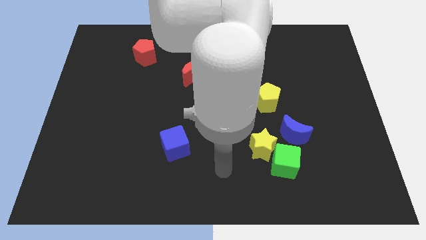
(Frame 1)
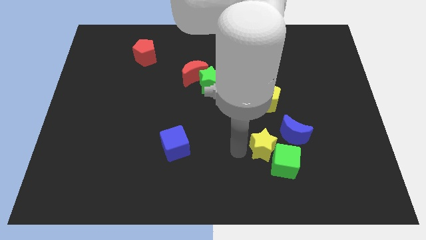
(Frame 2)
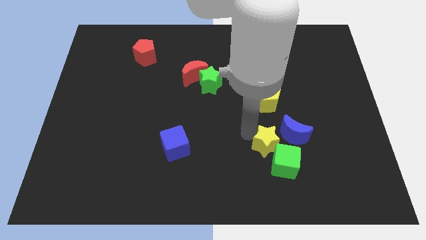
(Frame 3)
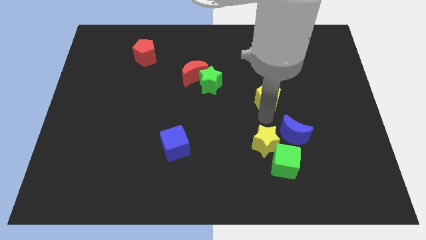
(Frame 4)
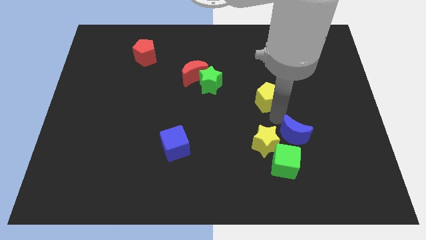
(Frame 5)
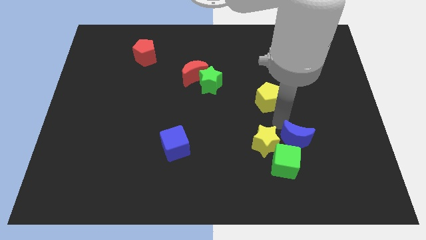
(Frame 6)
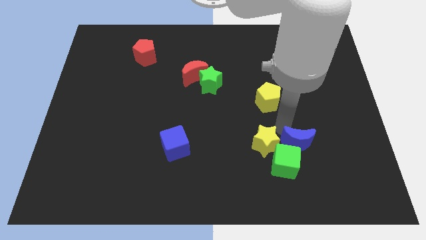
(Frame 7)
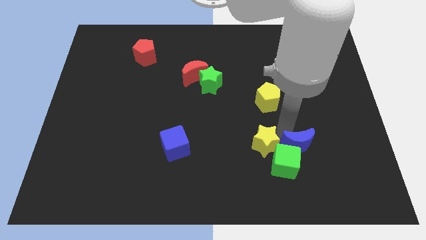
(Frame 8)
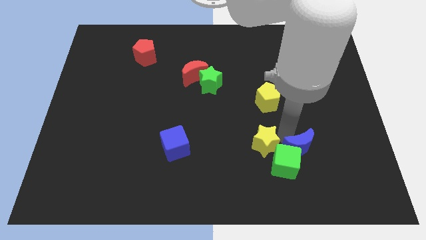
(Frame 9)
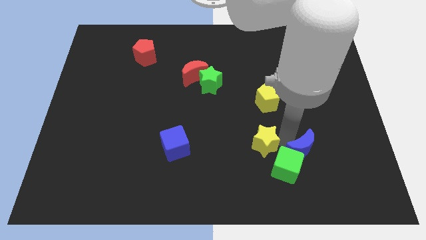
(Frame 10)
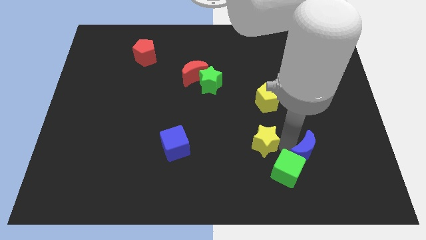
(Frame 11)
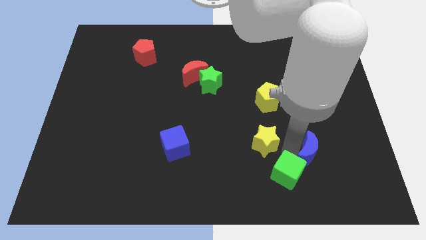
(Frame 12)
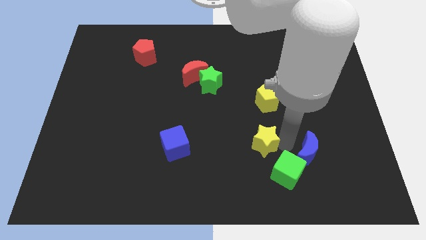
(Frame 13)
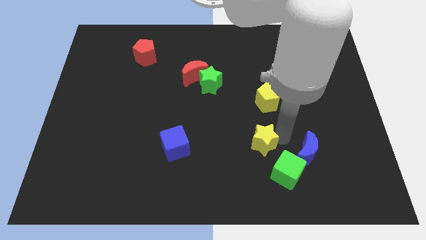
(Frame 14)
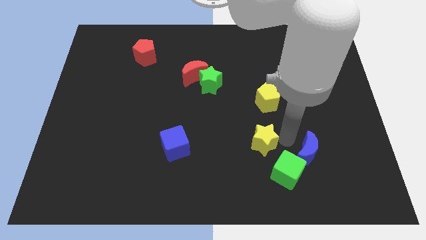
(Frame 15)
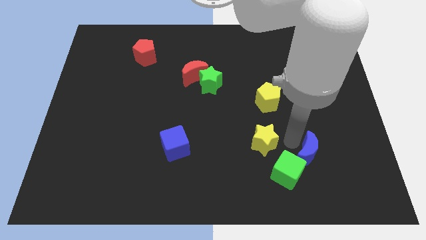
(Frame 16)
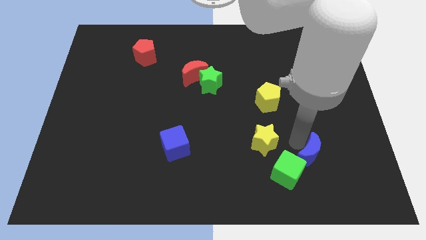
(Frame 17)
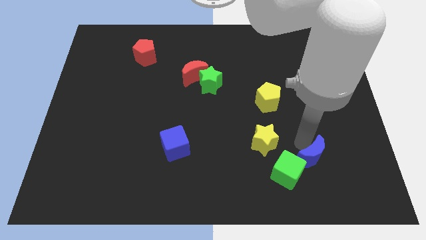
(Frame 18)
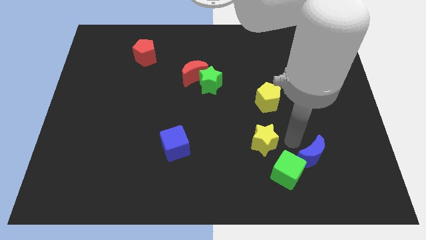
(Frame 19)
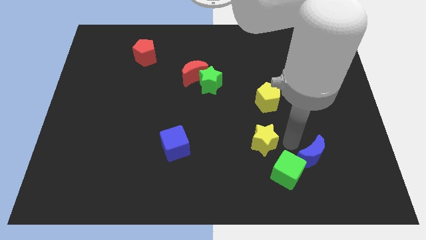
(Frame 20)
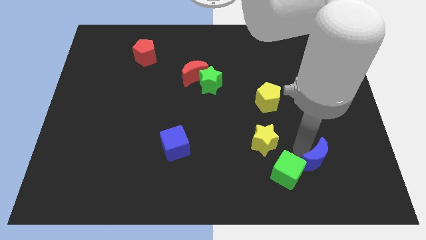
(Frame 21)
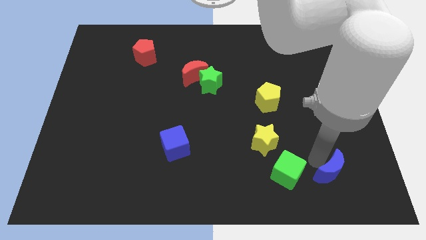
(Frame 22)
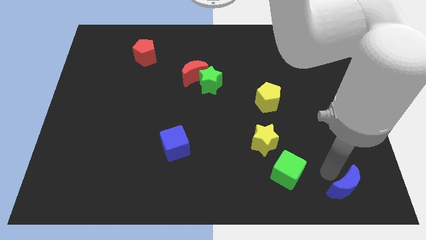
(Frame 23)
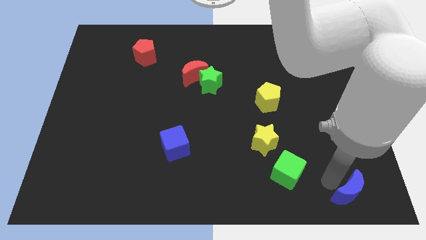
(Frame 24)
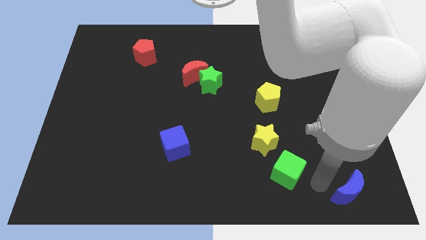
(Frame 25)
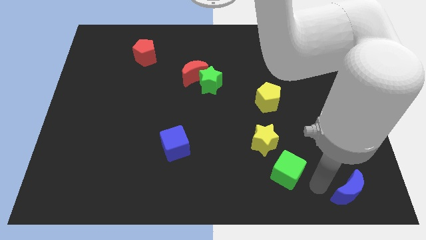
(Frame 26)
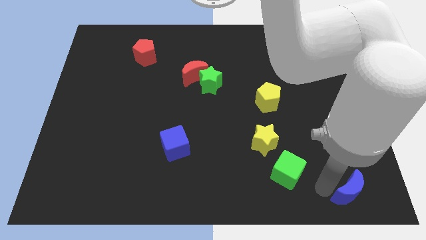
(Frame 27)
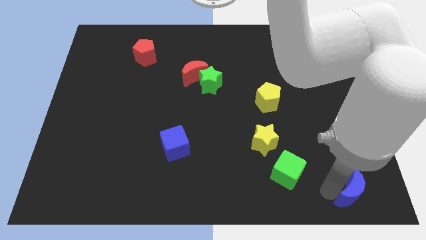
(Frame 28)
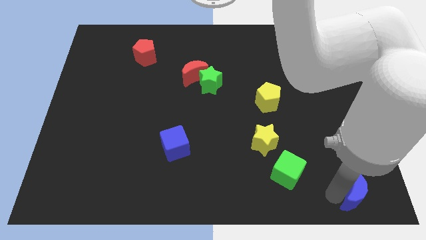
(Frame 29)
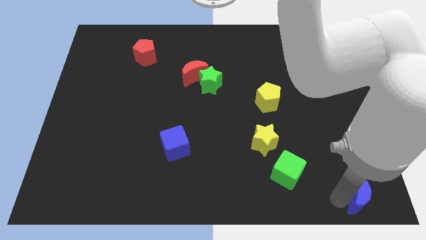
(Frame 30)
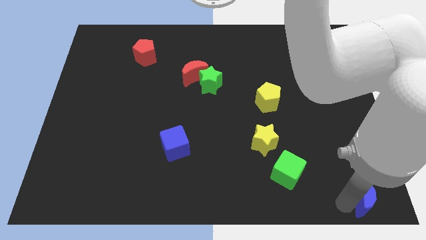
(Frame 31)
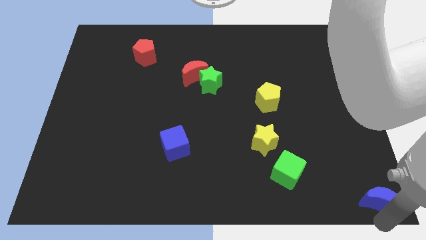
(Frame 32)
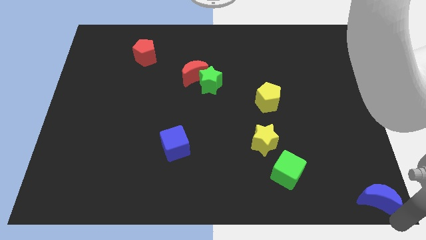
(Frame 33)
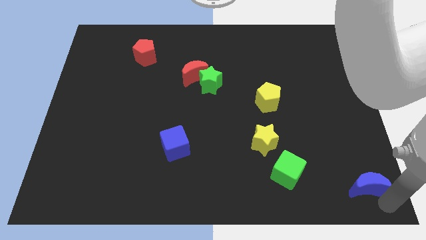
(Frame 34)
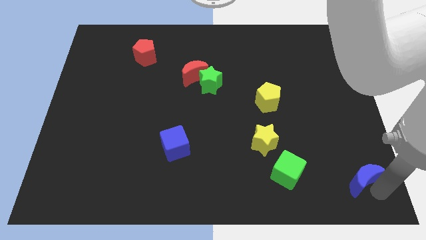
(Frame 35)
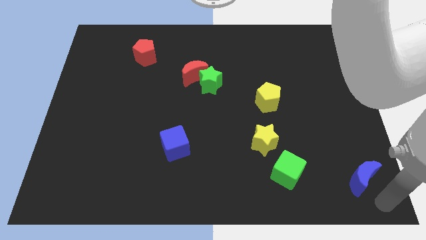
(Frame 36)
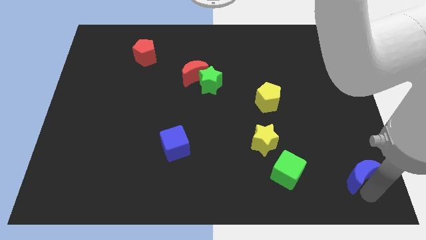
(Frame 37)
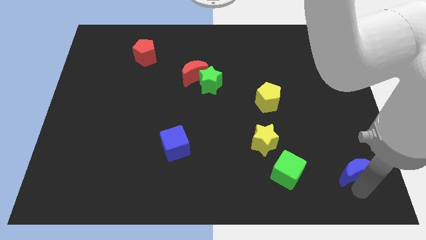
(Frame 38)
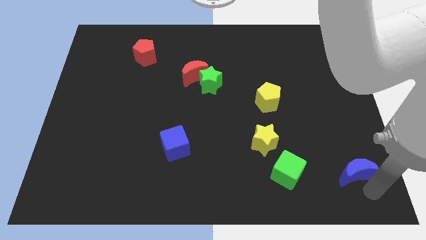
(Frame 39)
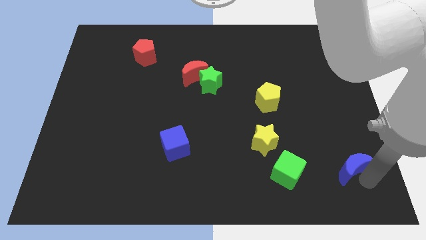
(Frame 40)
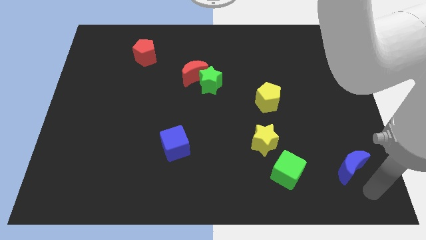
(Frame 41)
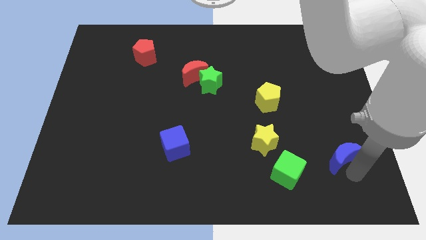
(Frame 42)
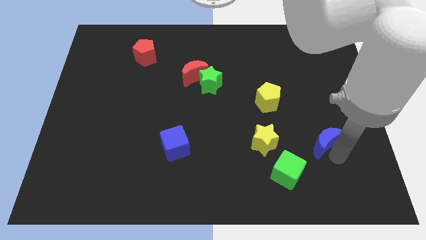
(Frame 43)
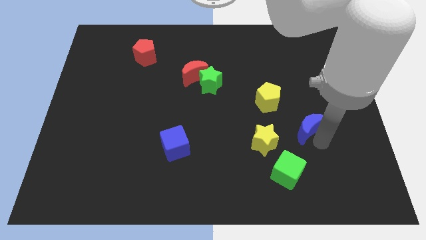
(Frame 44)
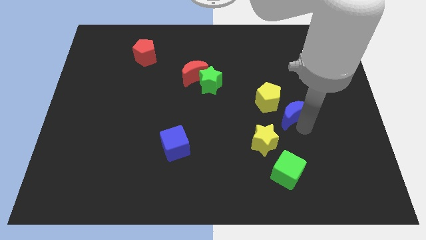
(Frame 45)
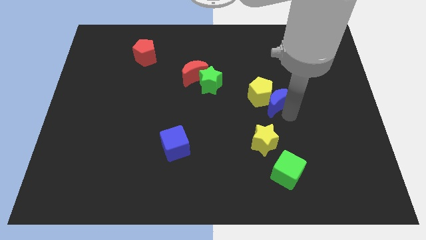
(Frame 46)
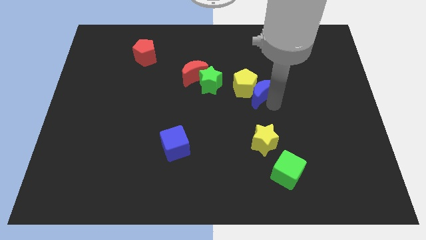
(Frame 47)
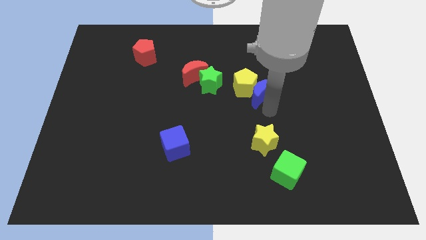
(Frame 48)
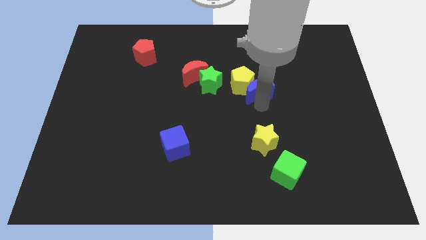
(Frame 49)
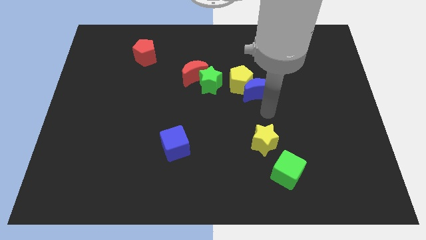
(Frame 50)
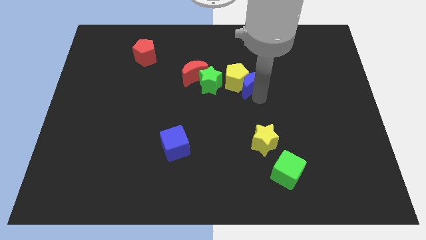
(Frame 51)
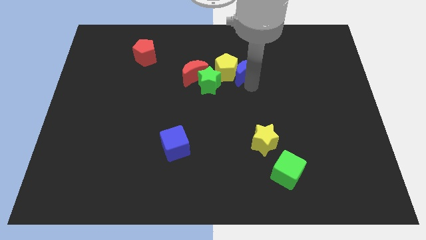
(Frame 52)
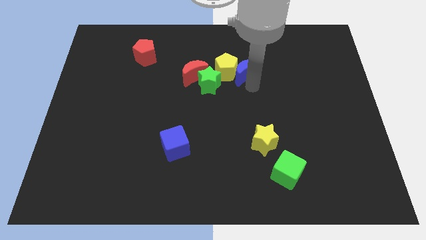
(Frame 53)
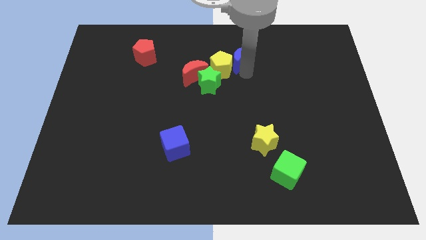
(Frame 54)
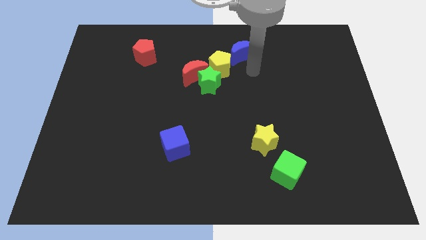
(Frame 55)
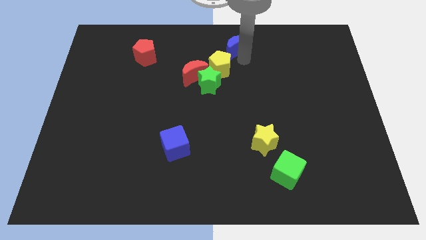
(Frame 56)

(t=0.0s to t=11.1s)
push the blue moon to the towards your base
